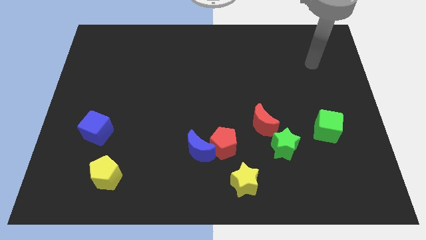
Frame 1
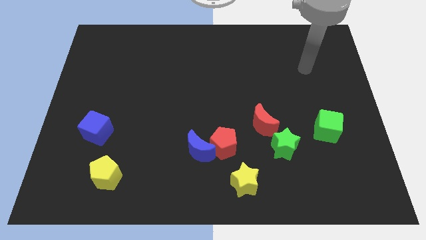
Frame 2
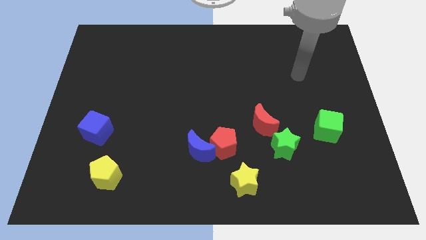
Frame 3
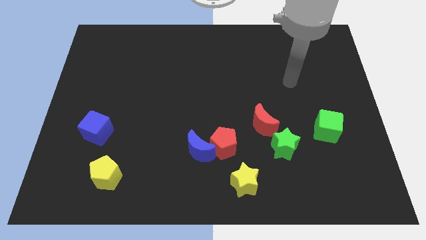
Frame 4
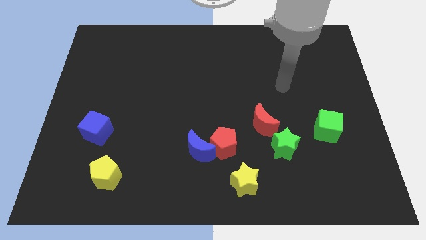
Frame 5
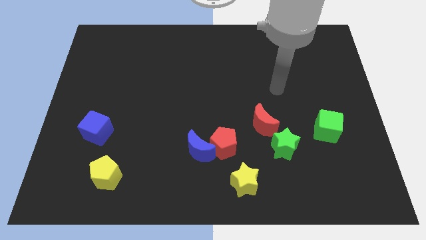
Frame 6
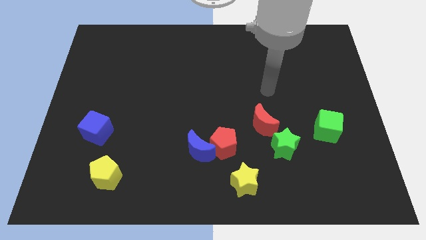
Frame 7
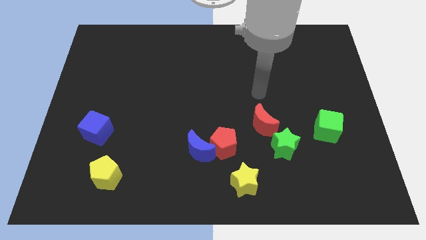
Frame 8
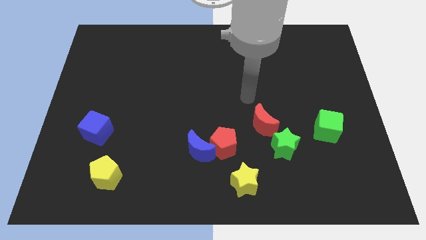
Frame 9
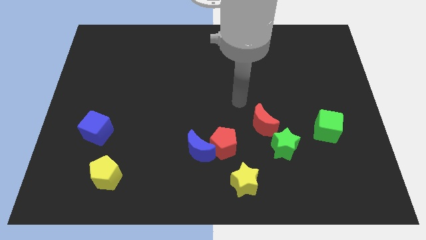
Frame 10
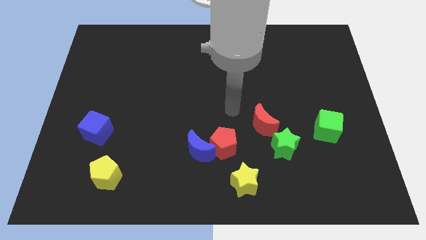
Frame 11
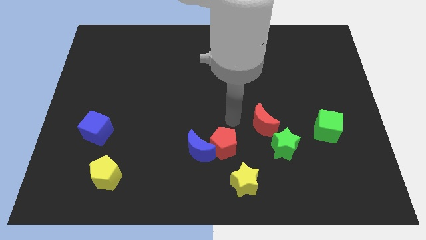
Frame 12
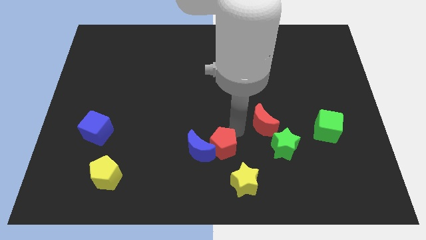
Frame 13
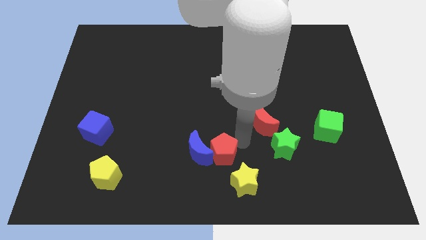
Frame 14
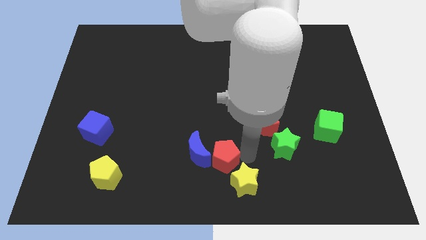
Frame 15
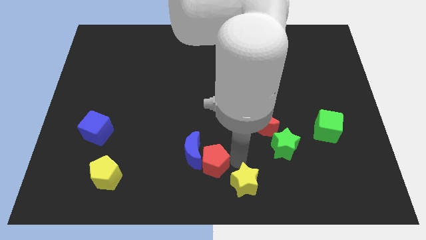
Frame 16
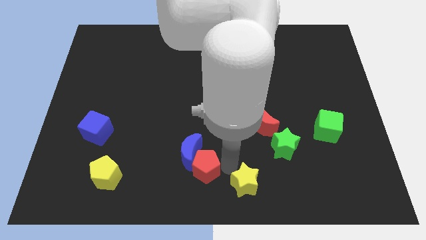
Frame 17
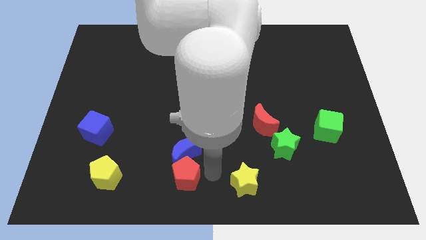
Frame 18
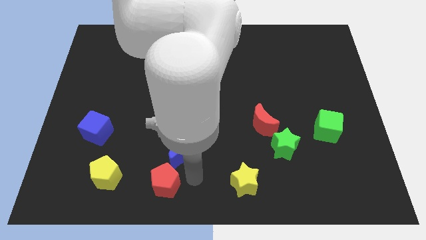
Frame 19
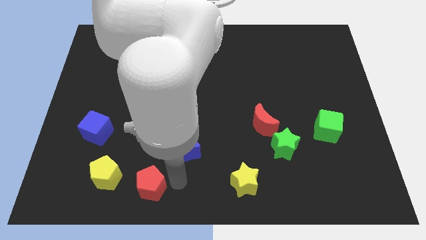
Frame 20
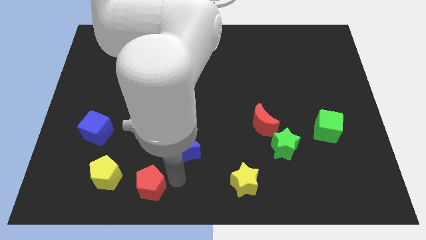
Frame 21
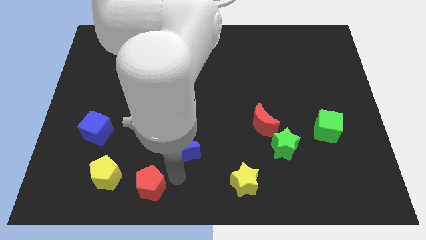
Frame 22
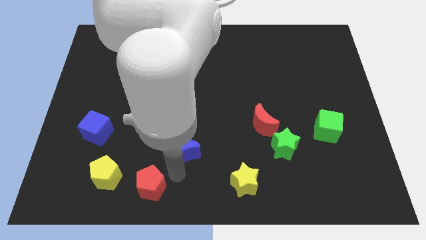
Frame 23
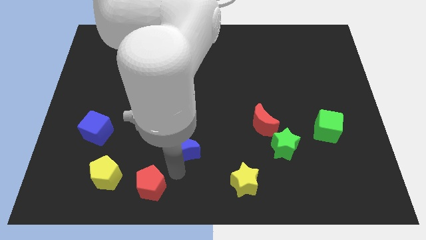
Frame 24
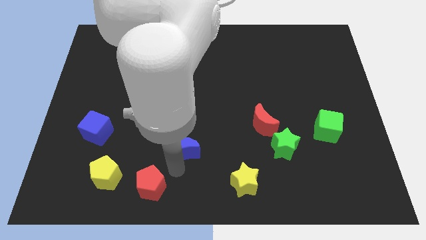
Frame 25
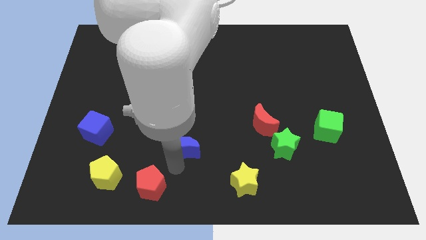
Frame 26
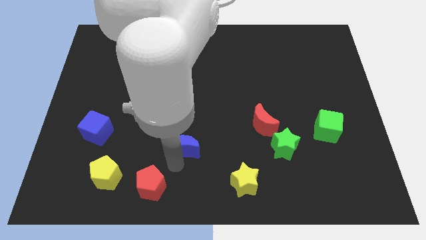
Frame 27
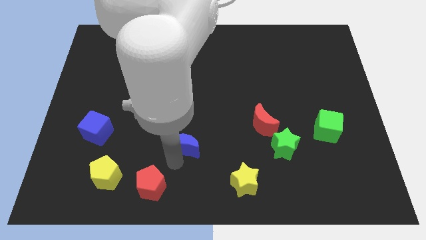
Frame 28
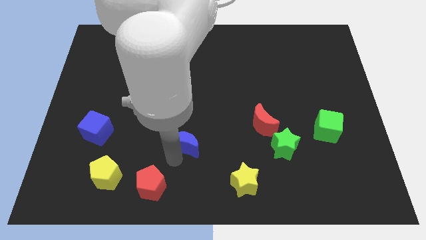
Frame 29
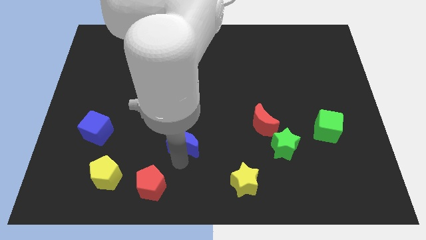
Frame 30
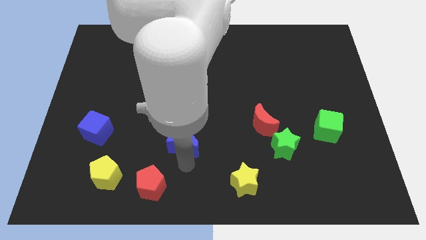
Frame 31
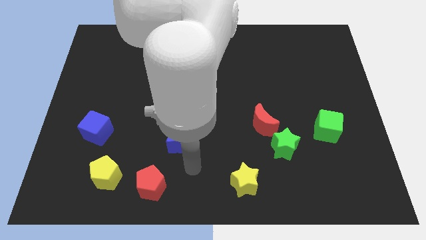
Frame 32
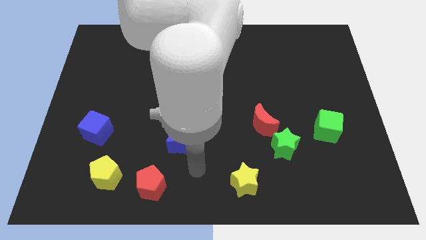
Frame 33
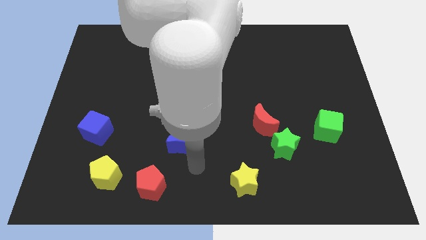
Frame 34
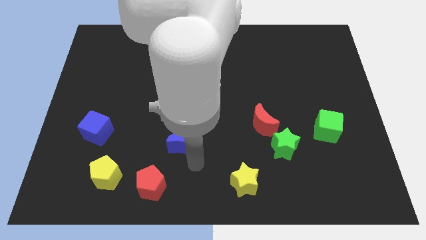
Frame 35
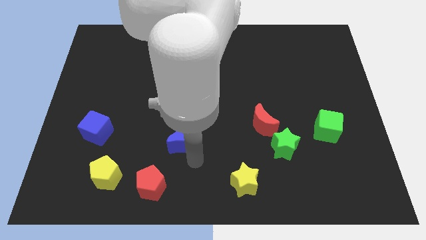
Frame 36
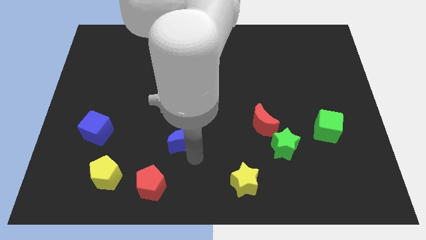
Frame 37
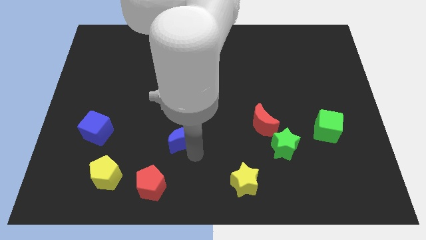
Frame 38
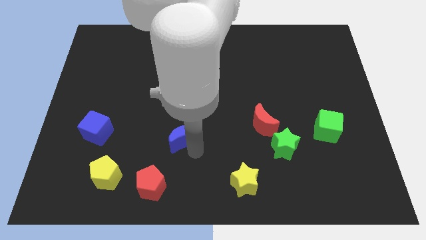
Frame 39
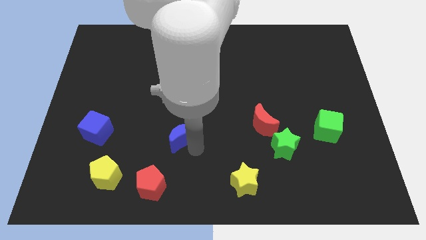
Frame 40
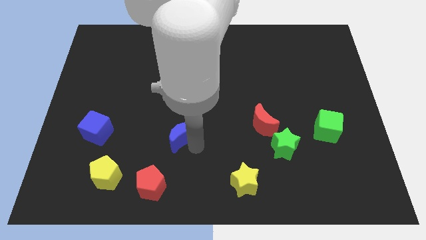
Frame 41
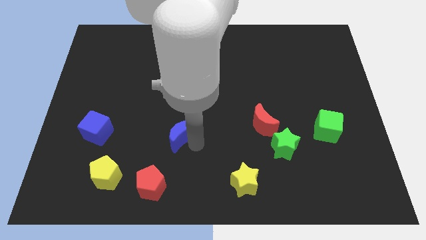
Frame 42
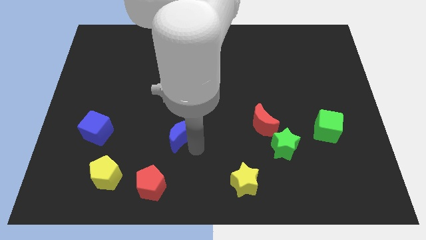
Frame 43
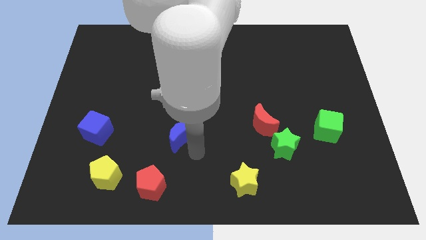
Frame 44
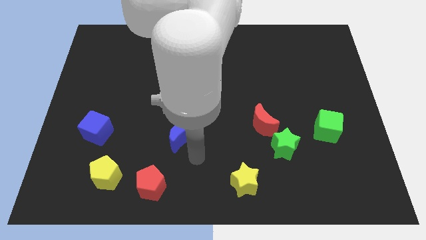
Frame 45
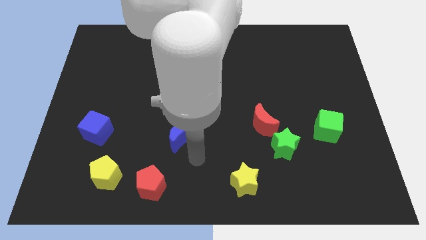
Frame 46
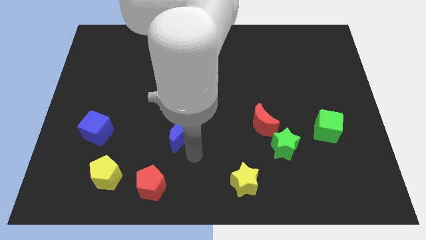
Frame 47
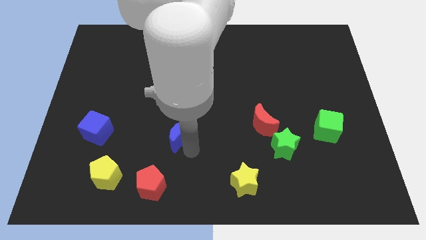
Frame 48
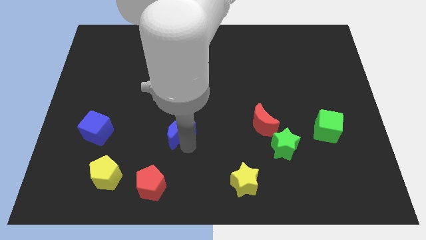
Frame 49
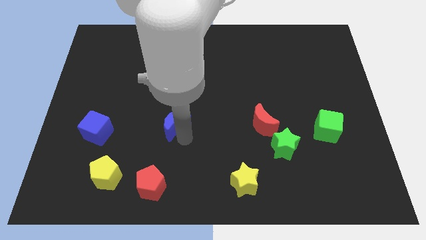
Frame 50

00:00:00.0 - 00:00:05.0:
slide the blue moon diagonally up and to the left a little bit

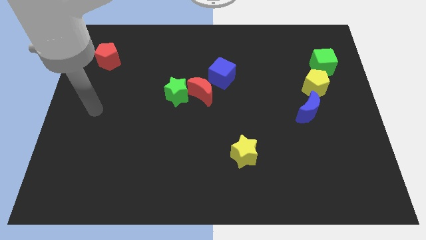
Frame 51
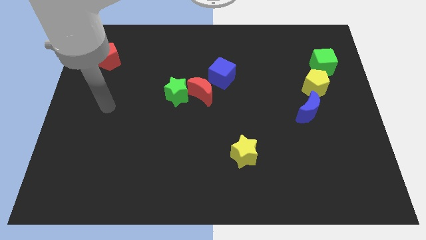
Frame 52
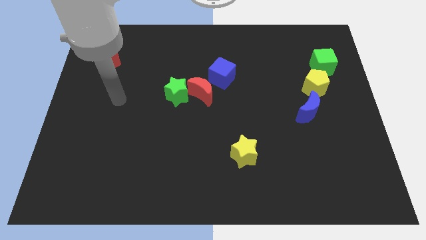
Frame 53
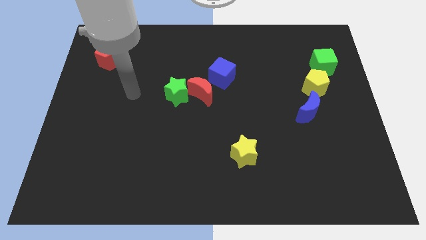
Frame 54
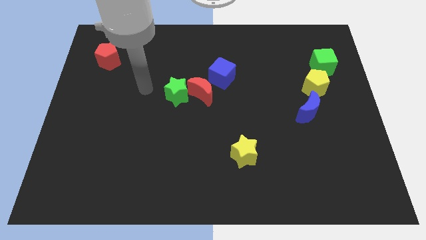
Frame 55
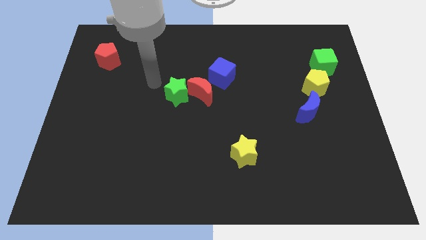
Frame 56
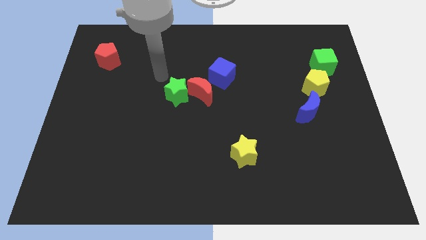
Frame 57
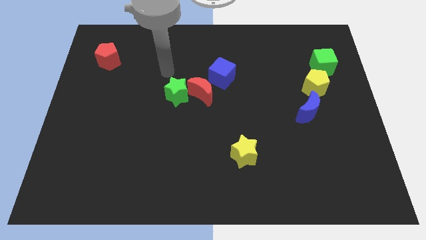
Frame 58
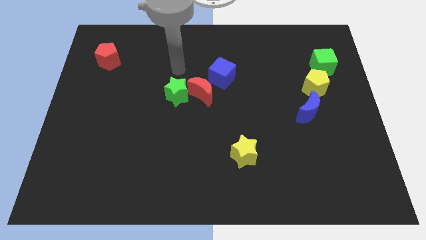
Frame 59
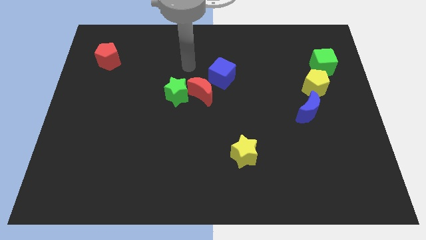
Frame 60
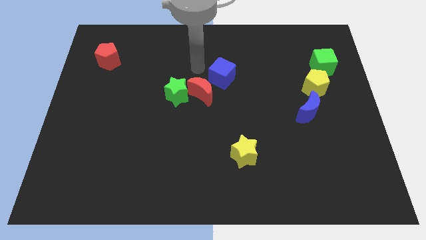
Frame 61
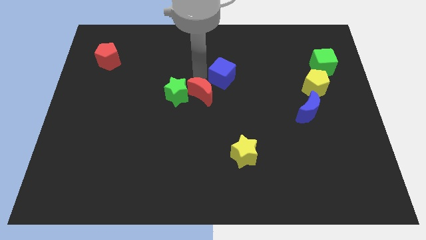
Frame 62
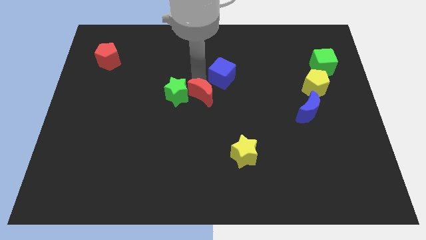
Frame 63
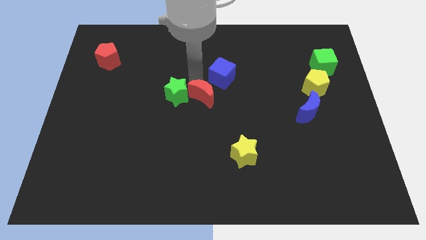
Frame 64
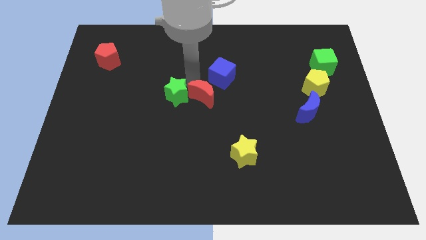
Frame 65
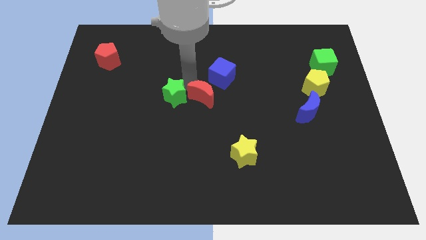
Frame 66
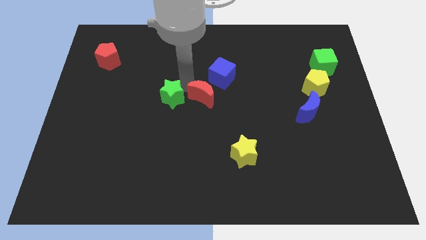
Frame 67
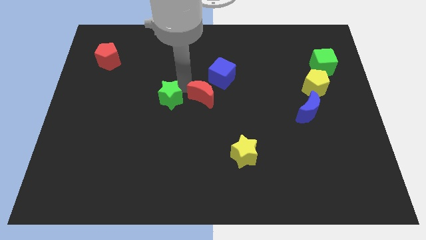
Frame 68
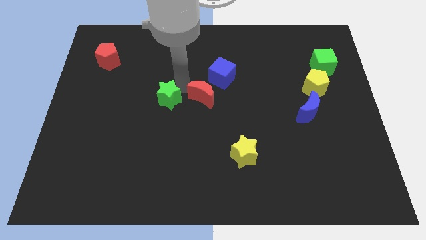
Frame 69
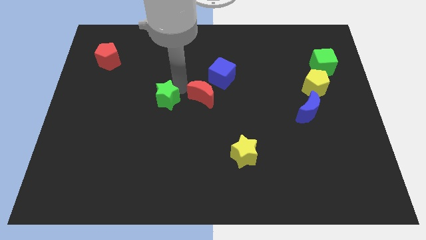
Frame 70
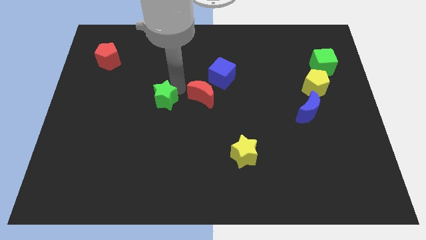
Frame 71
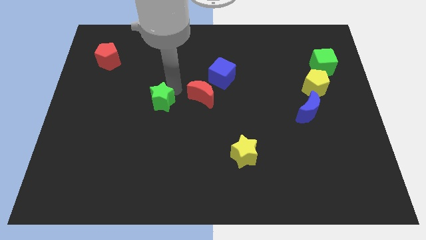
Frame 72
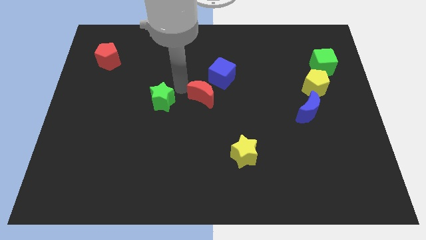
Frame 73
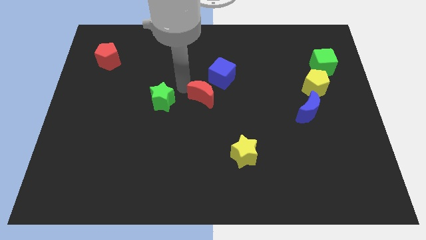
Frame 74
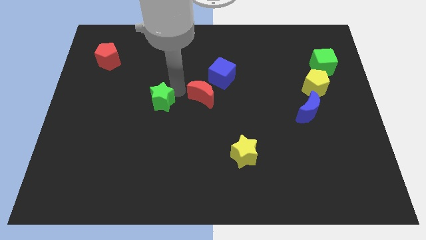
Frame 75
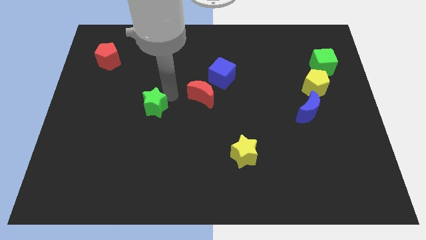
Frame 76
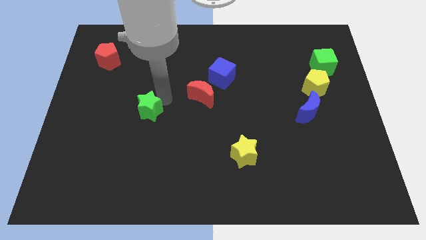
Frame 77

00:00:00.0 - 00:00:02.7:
slightly push the green star downwards and then to the left

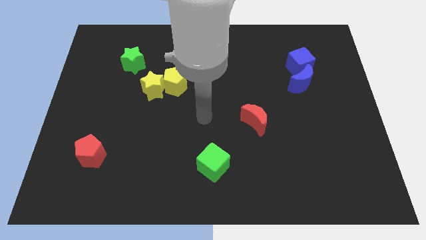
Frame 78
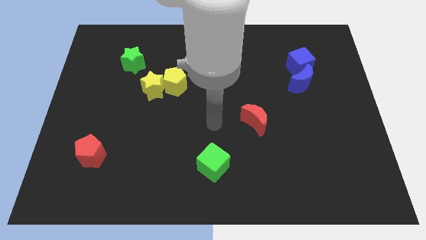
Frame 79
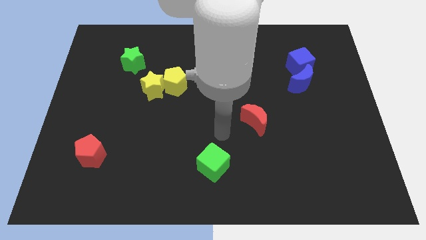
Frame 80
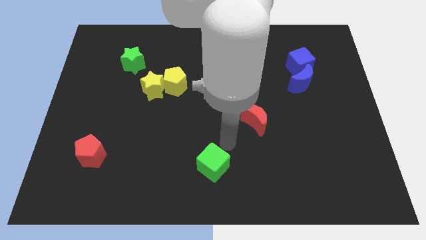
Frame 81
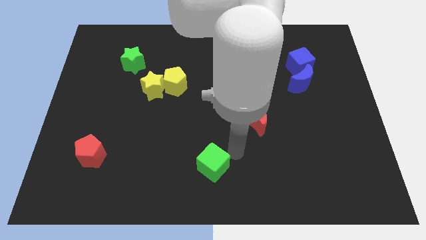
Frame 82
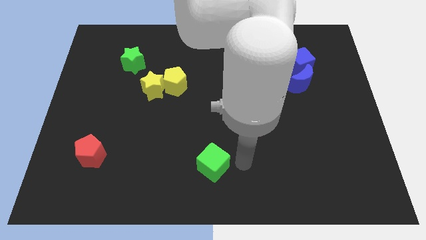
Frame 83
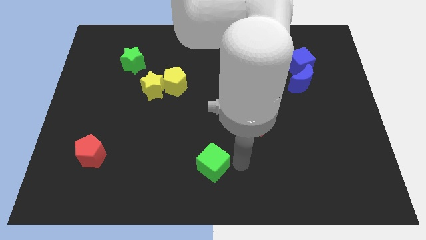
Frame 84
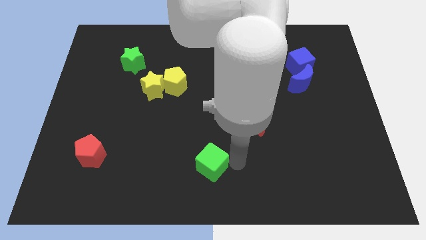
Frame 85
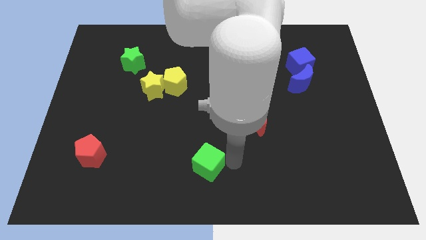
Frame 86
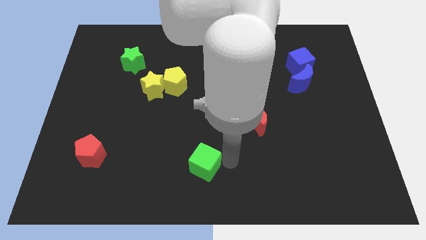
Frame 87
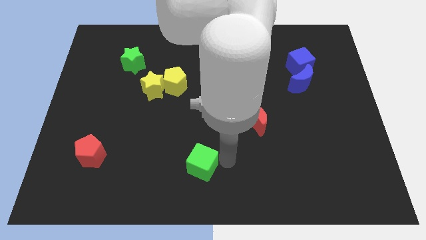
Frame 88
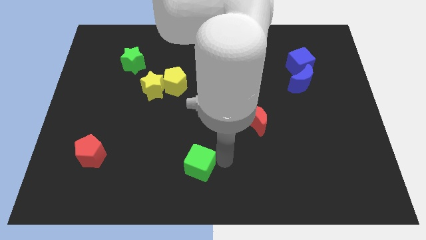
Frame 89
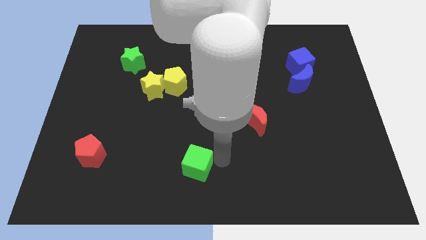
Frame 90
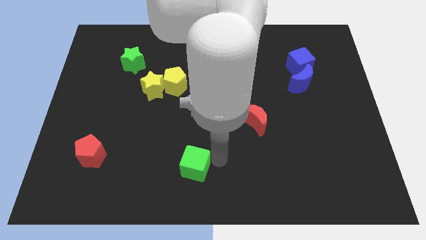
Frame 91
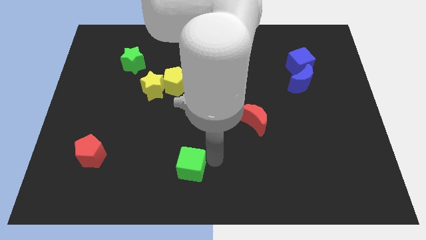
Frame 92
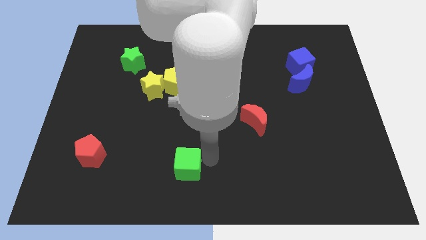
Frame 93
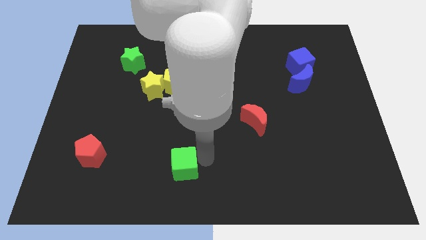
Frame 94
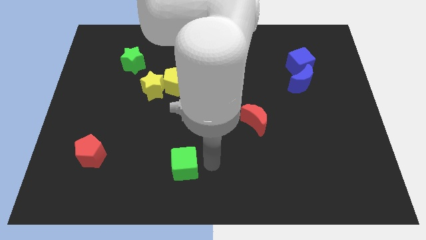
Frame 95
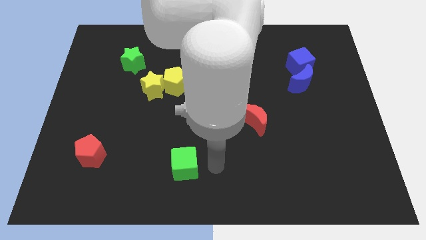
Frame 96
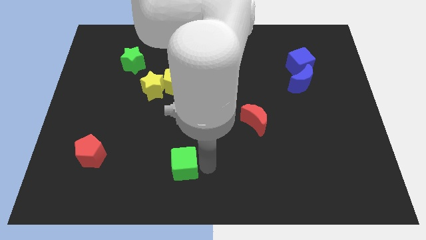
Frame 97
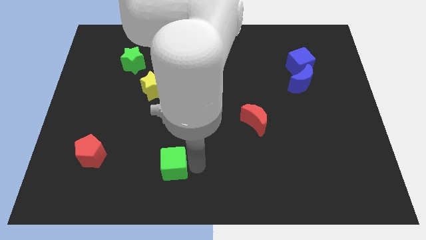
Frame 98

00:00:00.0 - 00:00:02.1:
move the green cube slightly left
